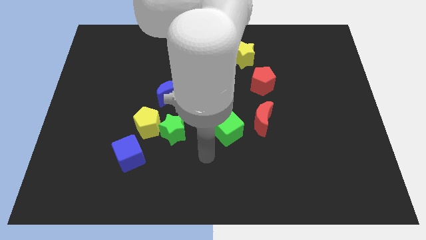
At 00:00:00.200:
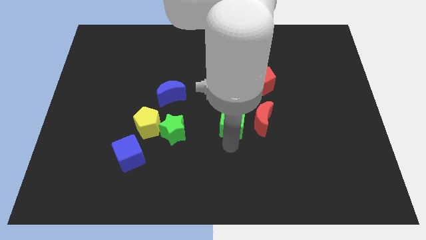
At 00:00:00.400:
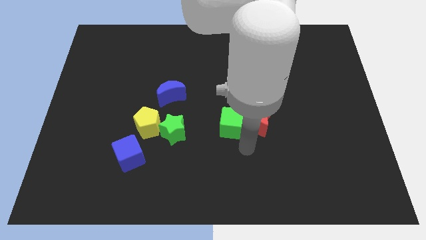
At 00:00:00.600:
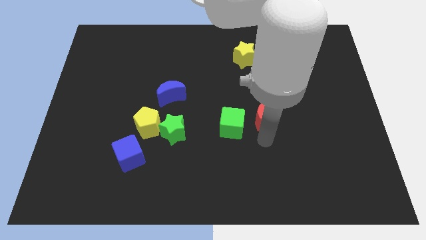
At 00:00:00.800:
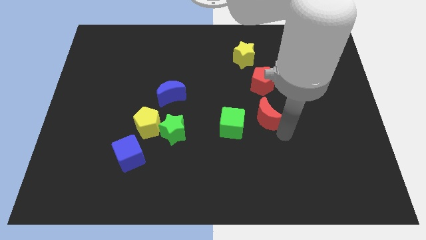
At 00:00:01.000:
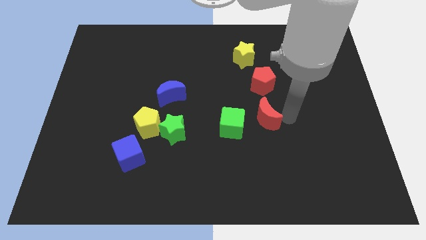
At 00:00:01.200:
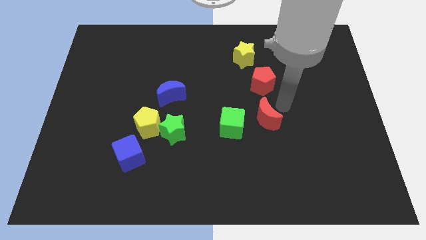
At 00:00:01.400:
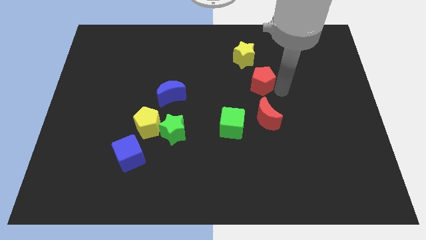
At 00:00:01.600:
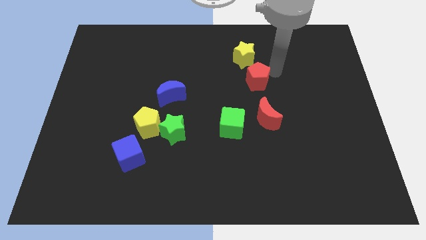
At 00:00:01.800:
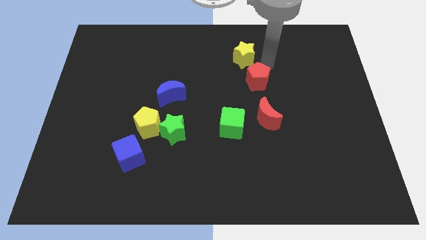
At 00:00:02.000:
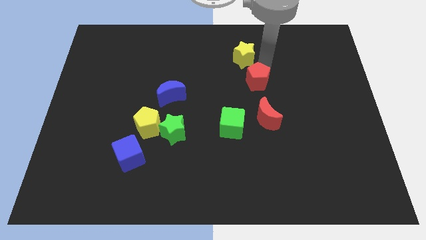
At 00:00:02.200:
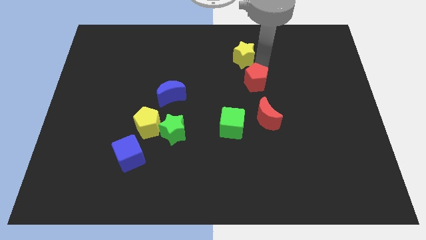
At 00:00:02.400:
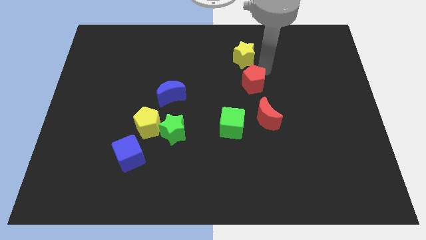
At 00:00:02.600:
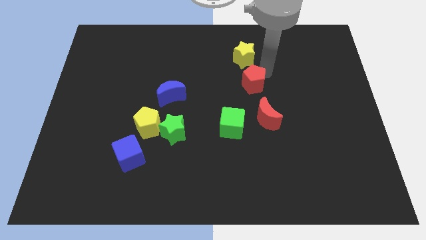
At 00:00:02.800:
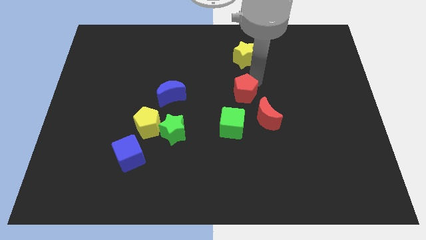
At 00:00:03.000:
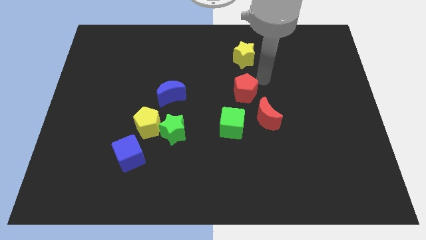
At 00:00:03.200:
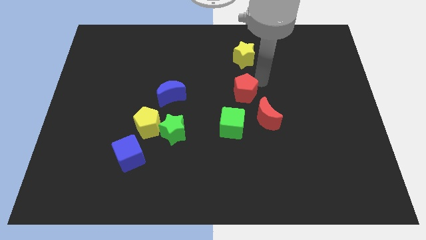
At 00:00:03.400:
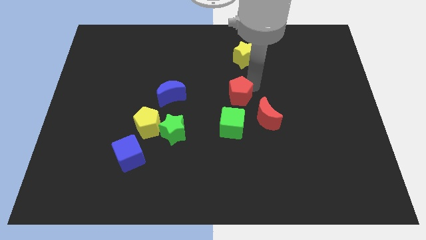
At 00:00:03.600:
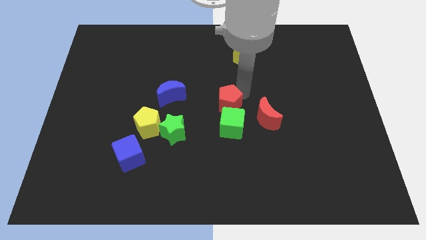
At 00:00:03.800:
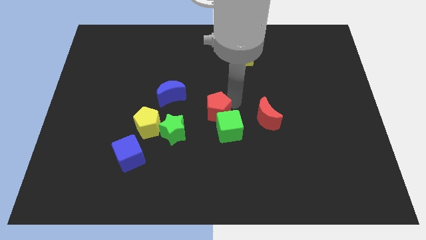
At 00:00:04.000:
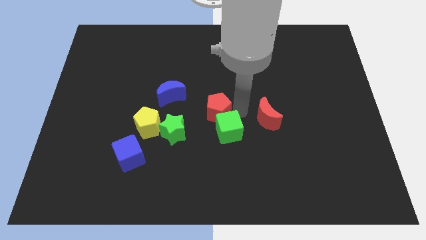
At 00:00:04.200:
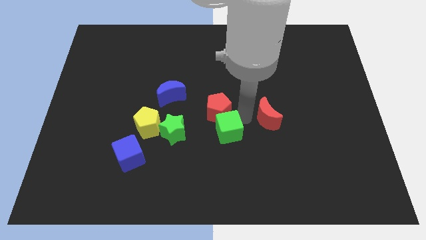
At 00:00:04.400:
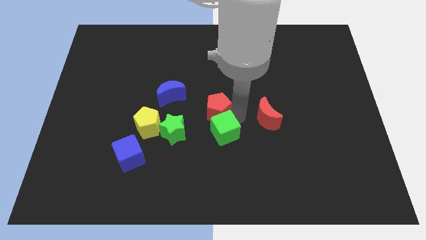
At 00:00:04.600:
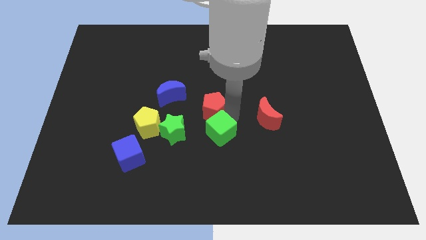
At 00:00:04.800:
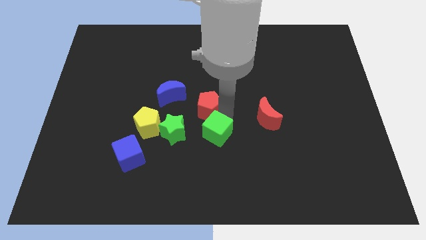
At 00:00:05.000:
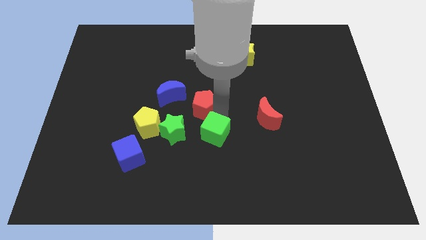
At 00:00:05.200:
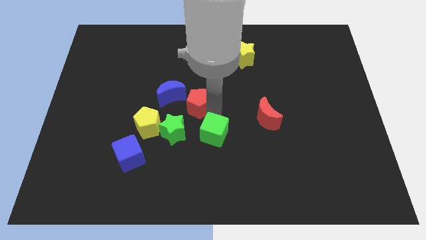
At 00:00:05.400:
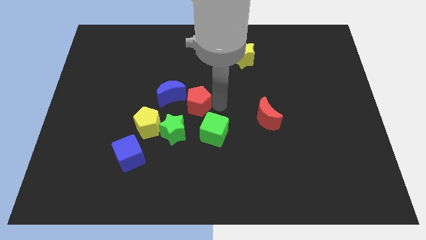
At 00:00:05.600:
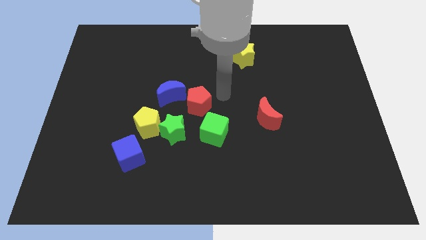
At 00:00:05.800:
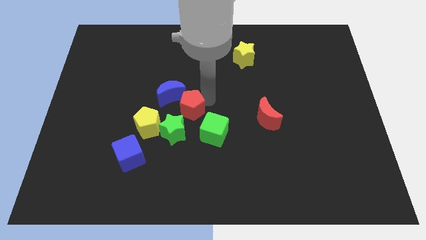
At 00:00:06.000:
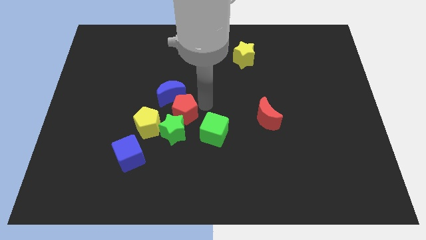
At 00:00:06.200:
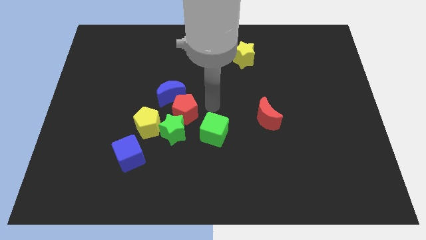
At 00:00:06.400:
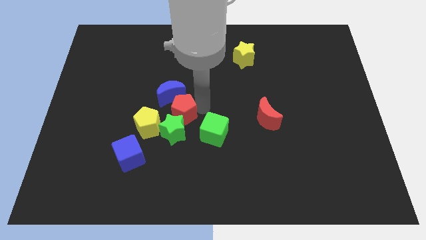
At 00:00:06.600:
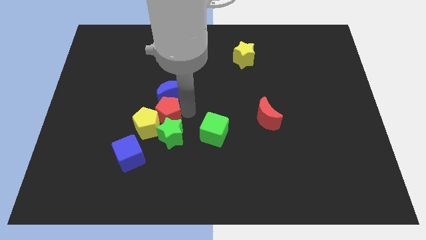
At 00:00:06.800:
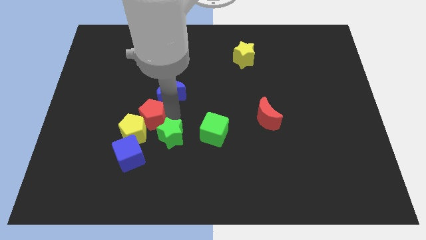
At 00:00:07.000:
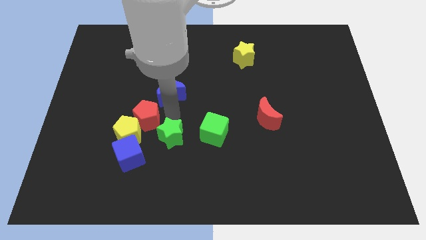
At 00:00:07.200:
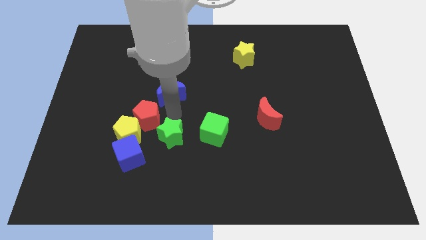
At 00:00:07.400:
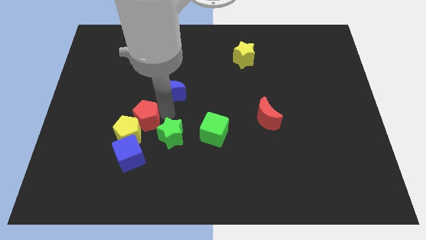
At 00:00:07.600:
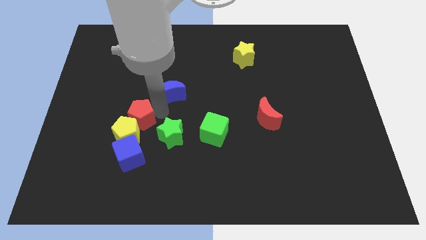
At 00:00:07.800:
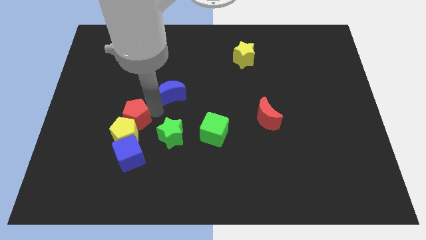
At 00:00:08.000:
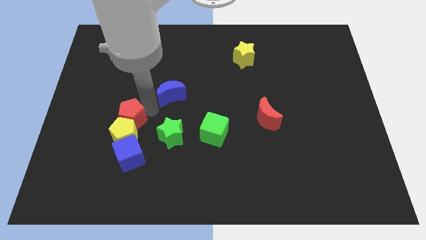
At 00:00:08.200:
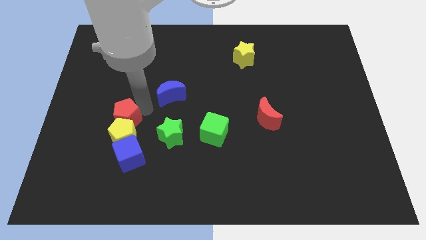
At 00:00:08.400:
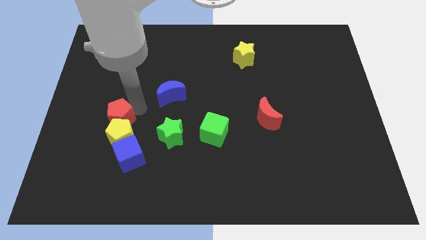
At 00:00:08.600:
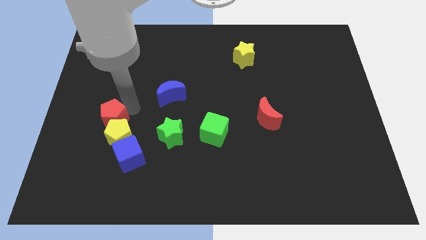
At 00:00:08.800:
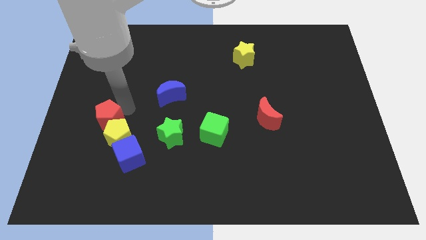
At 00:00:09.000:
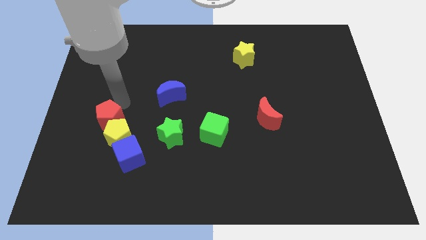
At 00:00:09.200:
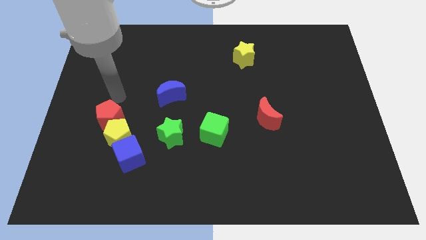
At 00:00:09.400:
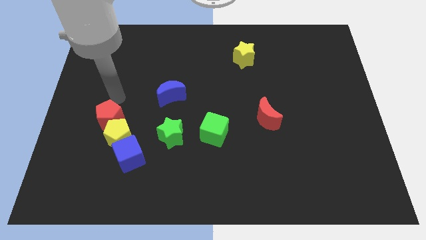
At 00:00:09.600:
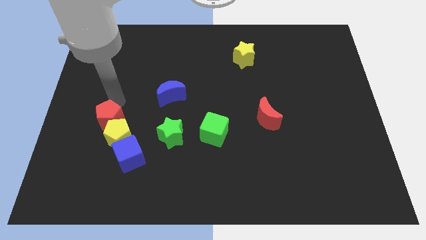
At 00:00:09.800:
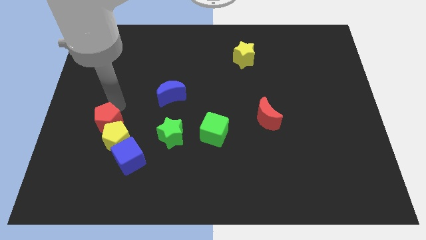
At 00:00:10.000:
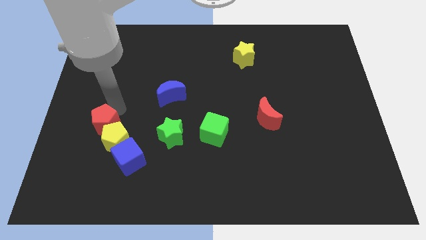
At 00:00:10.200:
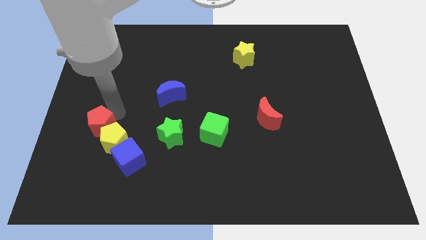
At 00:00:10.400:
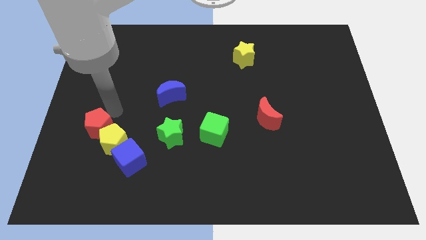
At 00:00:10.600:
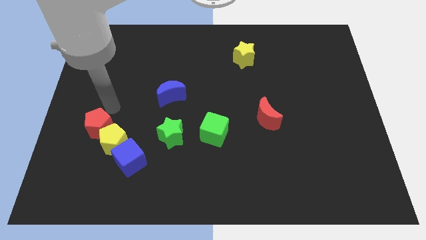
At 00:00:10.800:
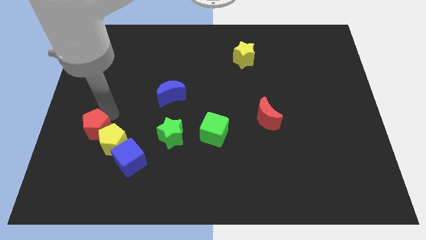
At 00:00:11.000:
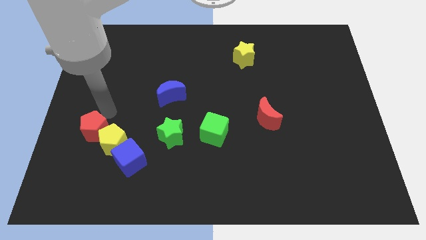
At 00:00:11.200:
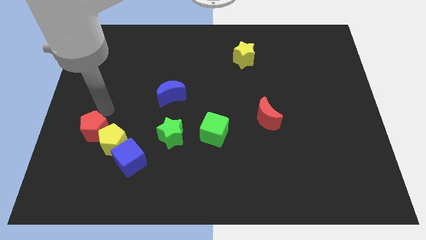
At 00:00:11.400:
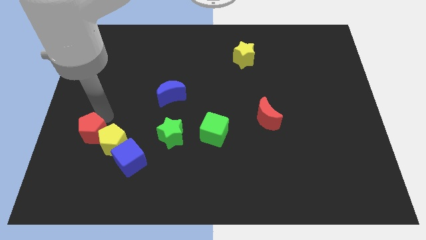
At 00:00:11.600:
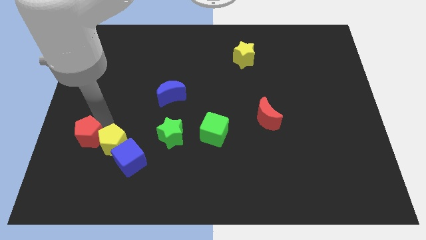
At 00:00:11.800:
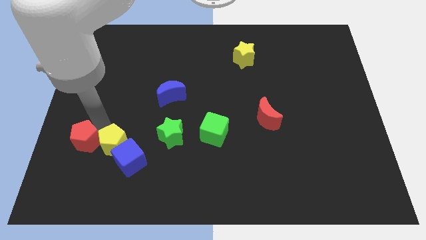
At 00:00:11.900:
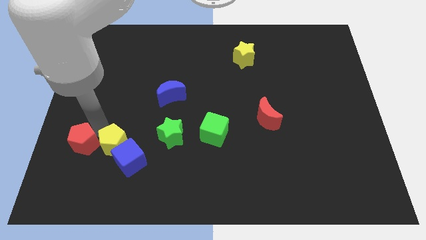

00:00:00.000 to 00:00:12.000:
move the red pentagon to the left of the blue cube
